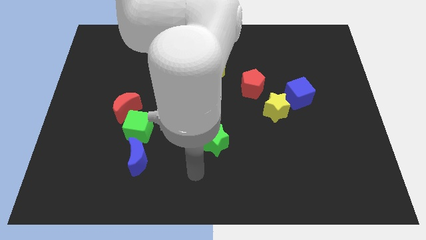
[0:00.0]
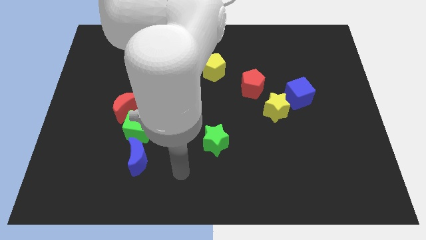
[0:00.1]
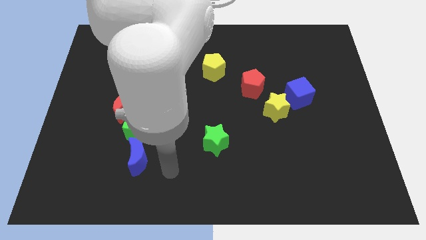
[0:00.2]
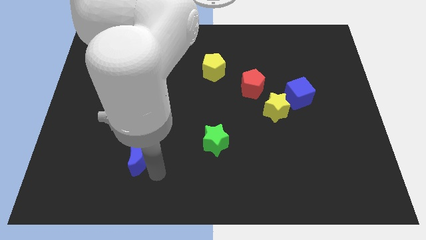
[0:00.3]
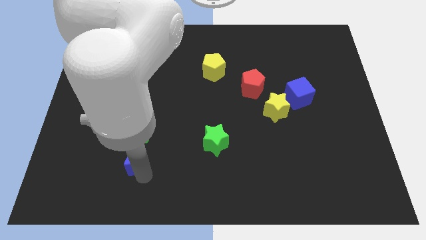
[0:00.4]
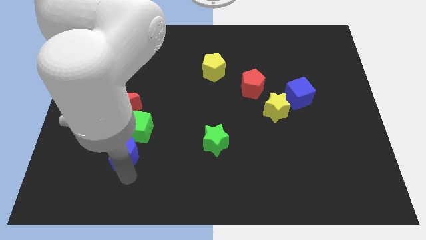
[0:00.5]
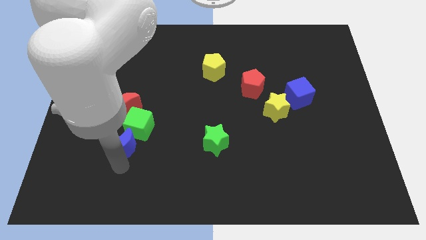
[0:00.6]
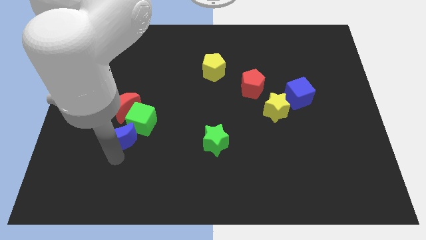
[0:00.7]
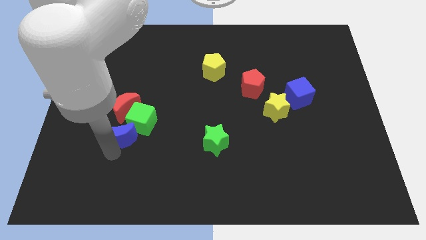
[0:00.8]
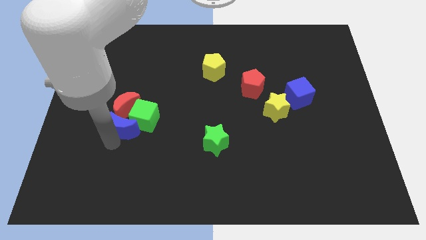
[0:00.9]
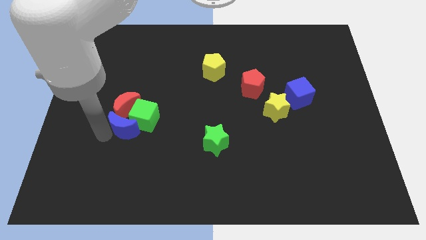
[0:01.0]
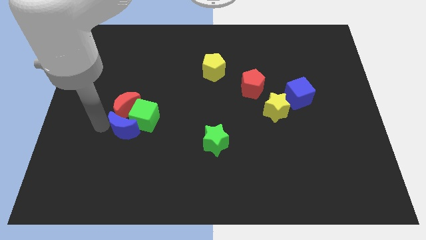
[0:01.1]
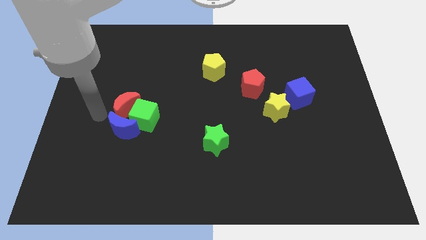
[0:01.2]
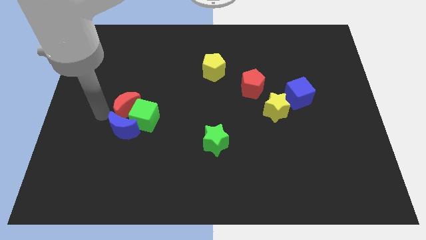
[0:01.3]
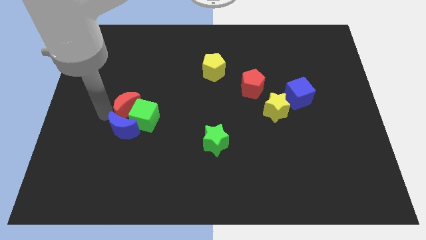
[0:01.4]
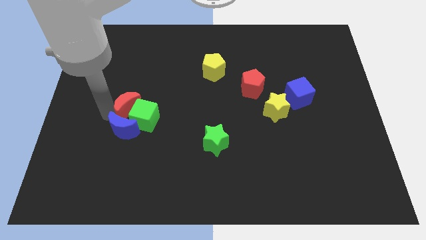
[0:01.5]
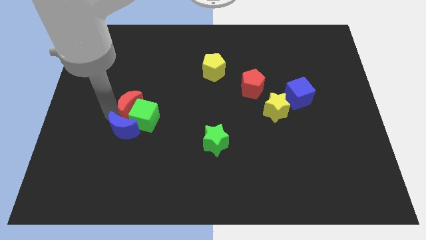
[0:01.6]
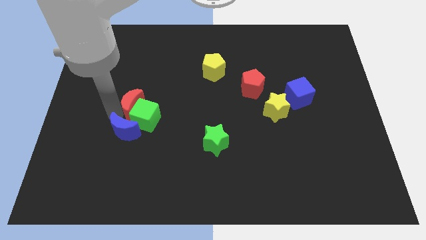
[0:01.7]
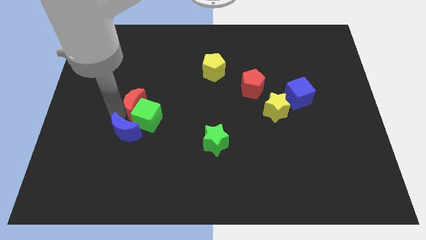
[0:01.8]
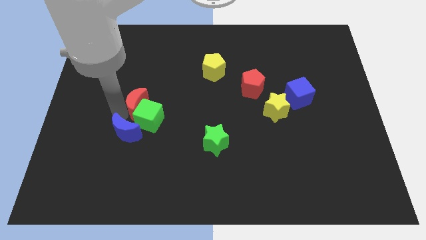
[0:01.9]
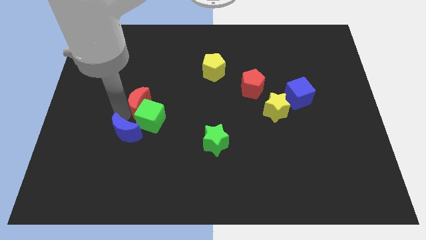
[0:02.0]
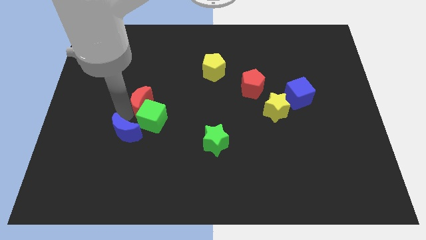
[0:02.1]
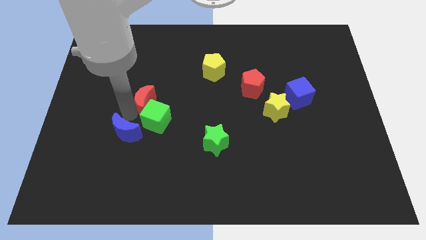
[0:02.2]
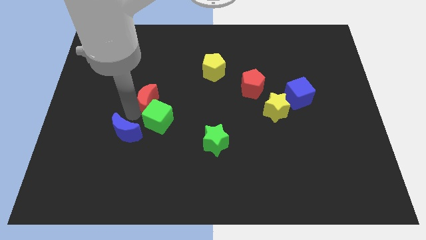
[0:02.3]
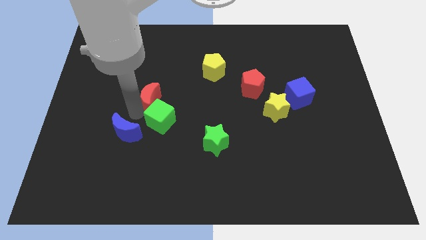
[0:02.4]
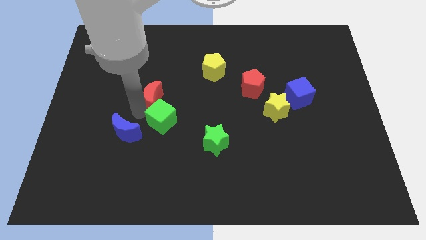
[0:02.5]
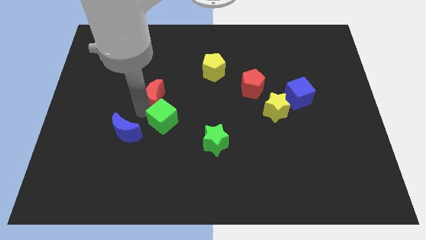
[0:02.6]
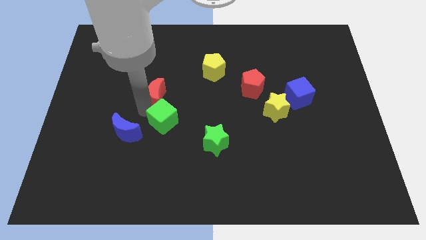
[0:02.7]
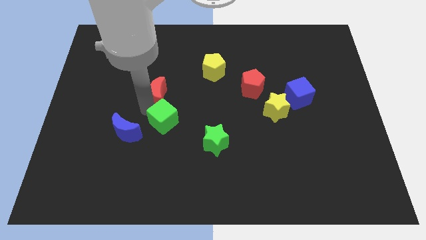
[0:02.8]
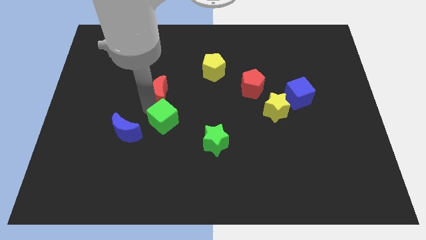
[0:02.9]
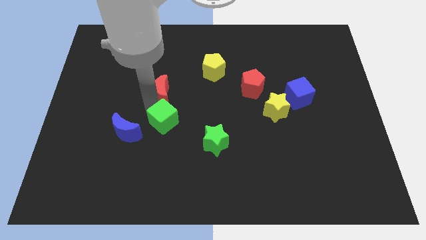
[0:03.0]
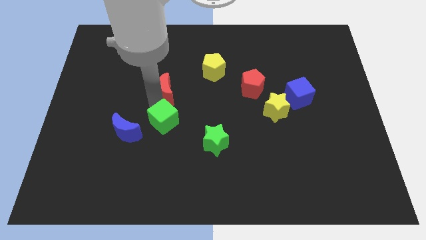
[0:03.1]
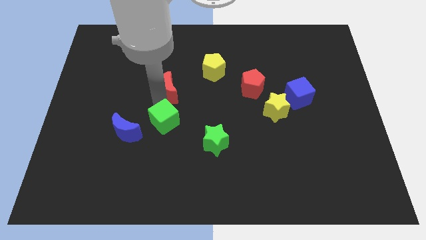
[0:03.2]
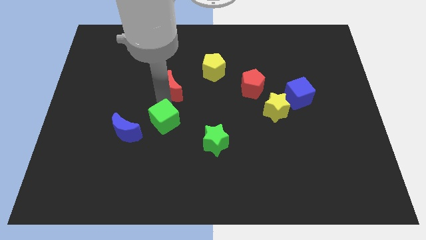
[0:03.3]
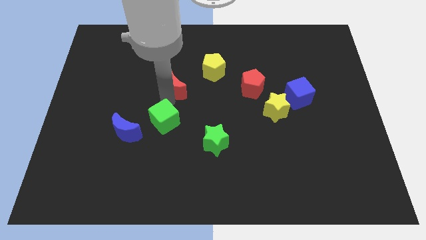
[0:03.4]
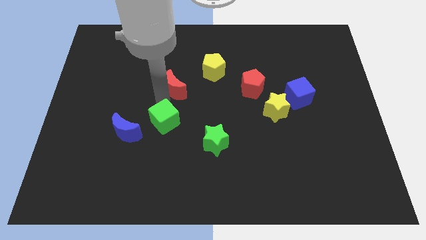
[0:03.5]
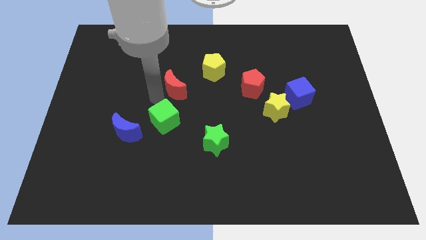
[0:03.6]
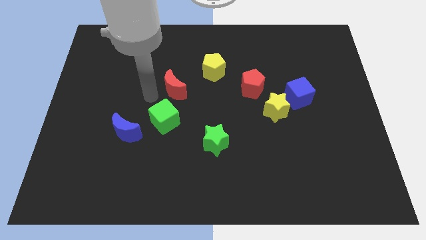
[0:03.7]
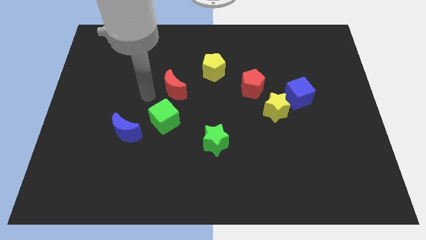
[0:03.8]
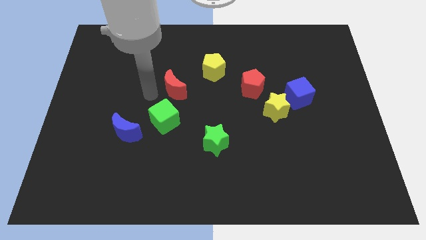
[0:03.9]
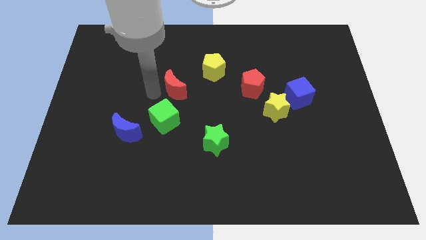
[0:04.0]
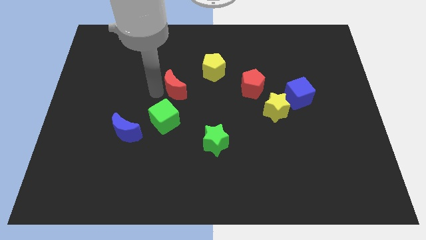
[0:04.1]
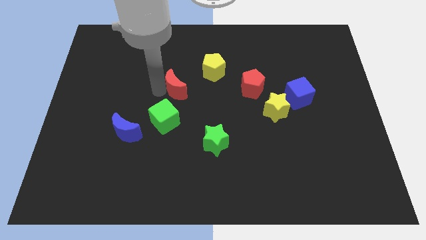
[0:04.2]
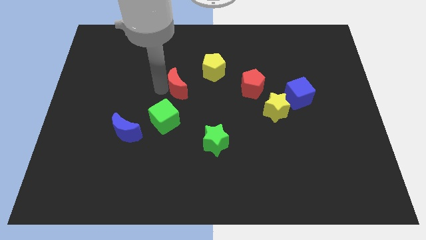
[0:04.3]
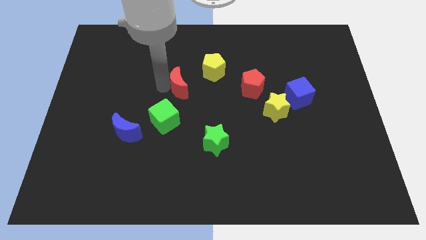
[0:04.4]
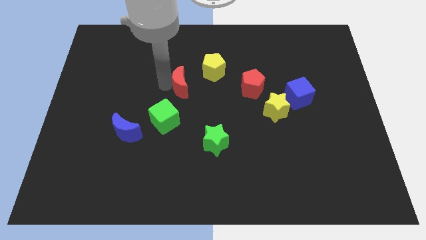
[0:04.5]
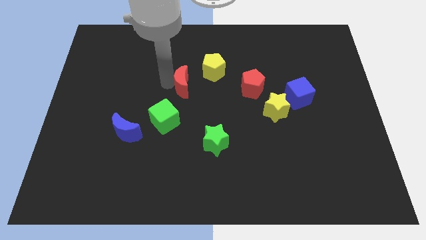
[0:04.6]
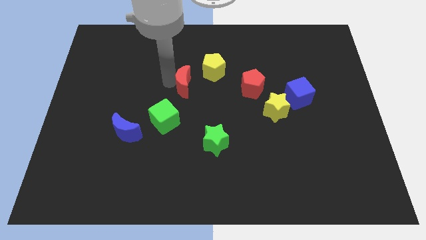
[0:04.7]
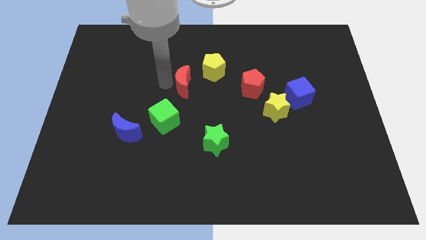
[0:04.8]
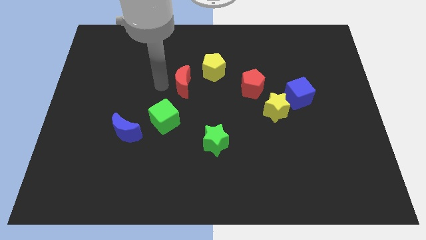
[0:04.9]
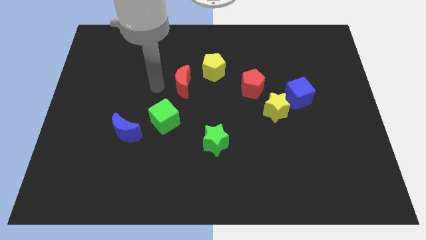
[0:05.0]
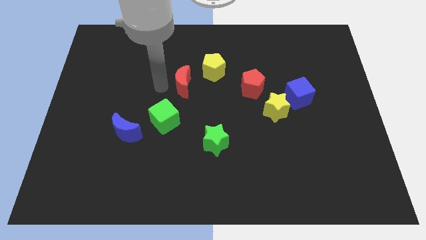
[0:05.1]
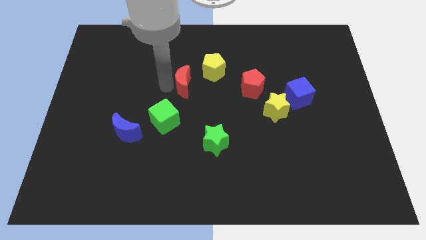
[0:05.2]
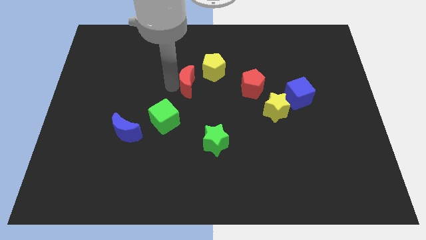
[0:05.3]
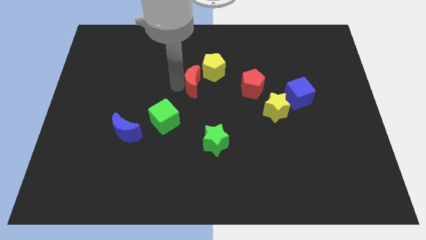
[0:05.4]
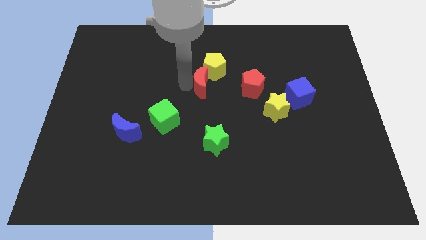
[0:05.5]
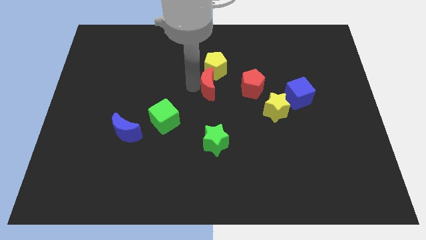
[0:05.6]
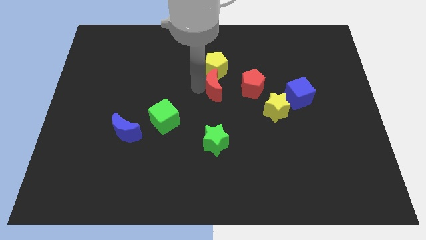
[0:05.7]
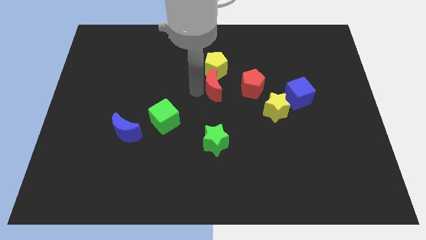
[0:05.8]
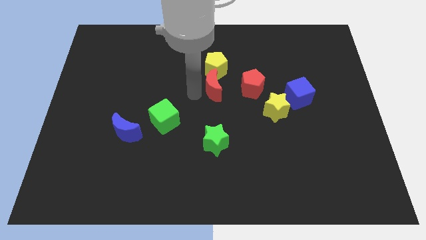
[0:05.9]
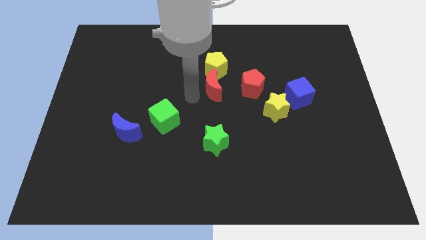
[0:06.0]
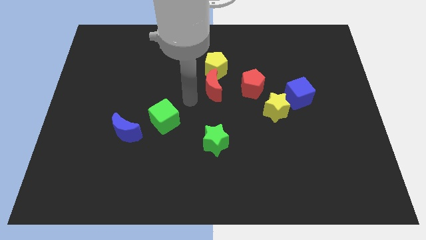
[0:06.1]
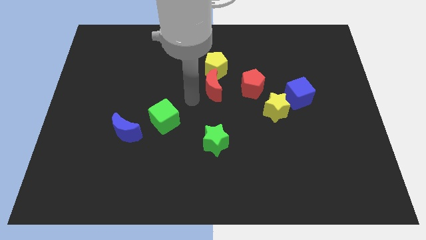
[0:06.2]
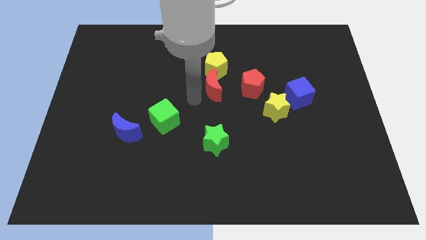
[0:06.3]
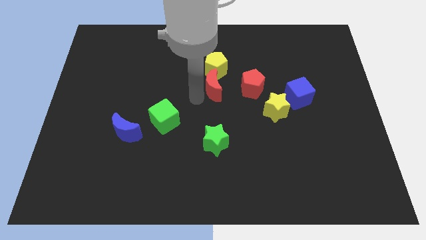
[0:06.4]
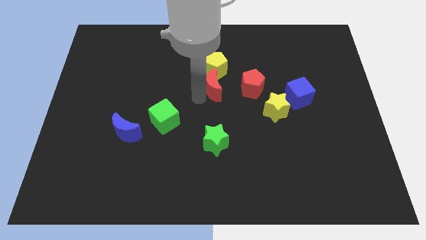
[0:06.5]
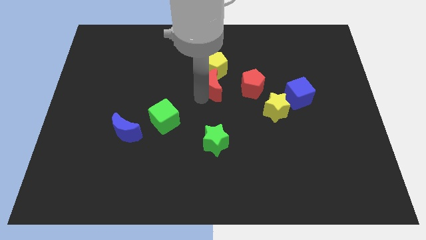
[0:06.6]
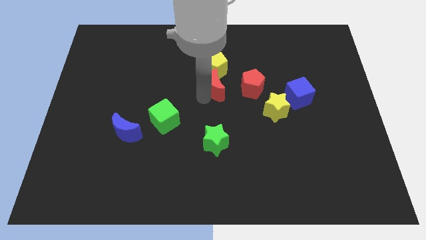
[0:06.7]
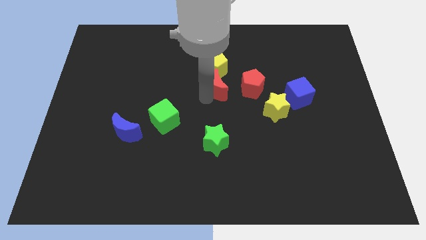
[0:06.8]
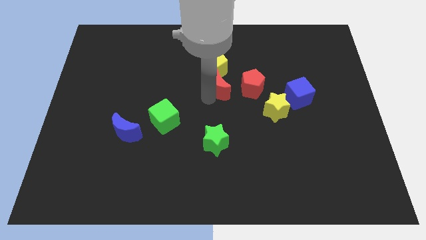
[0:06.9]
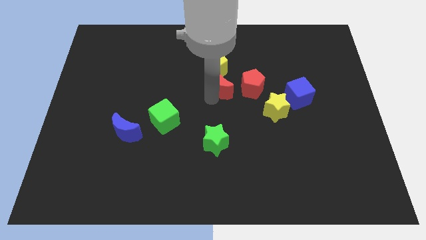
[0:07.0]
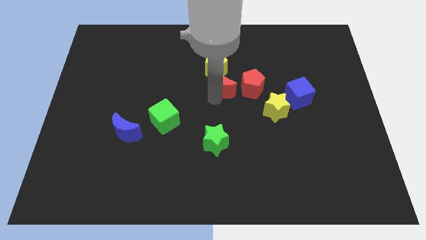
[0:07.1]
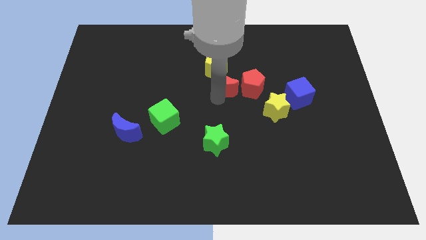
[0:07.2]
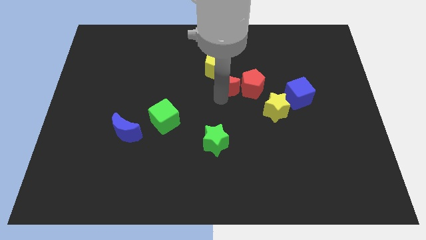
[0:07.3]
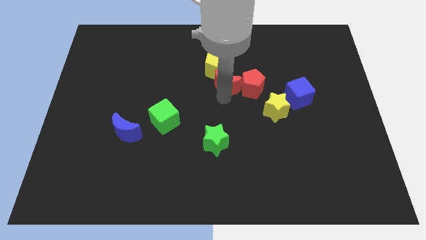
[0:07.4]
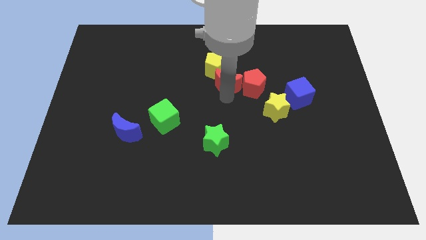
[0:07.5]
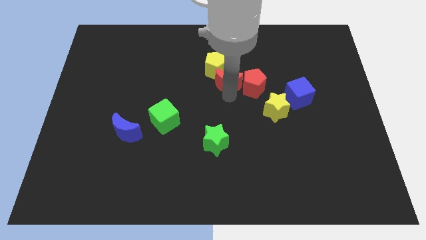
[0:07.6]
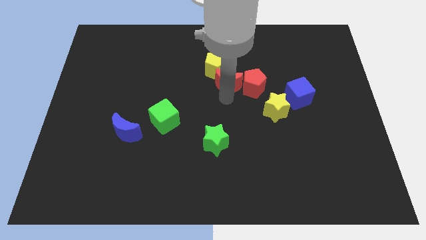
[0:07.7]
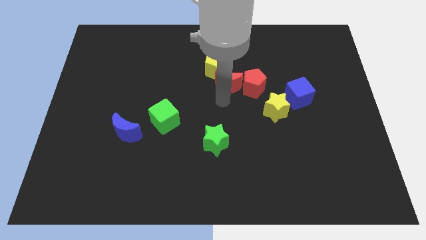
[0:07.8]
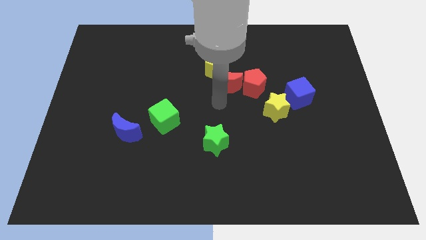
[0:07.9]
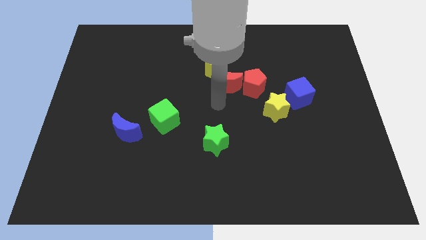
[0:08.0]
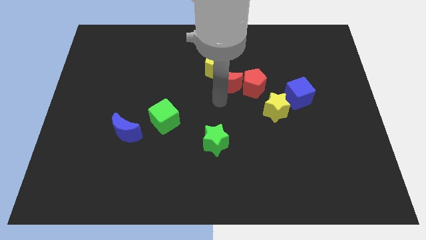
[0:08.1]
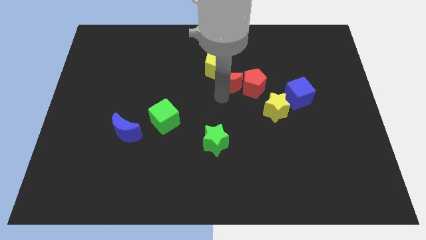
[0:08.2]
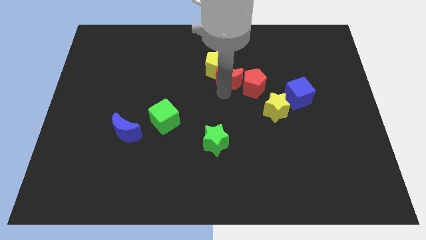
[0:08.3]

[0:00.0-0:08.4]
push the red moon right of the yellow pentagon
